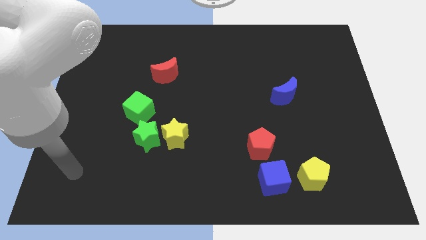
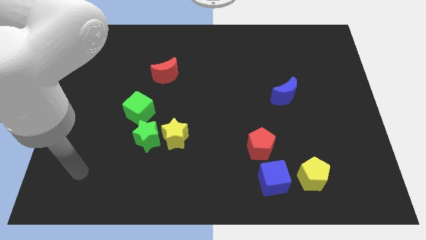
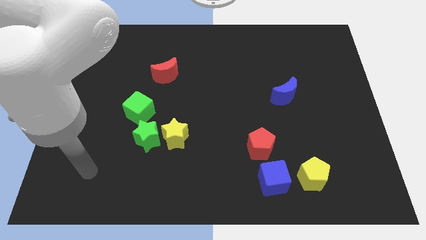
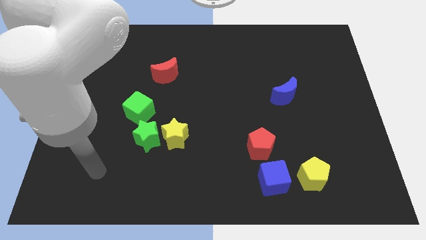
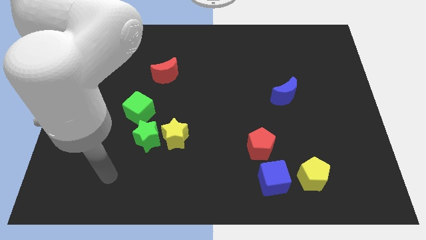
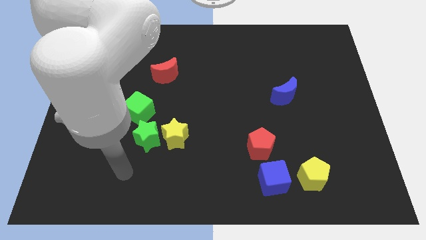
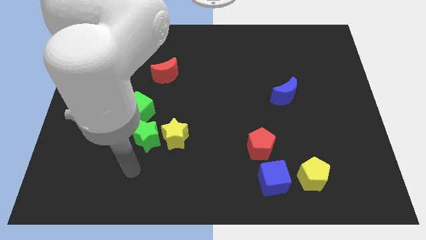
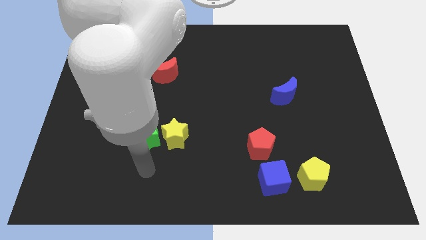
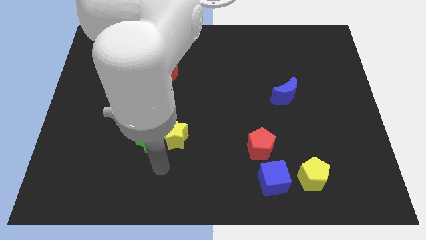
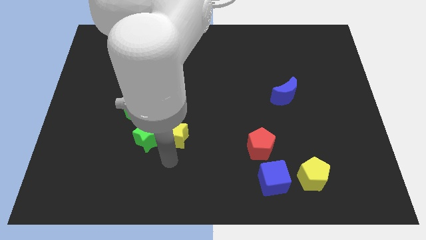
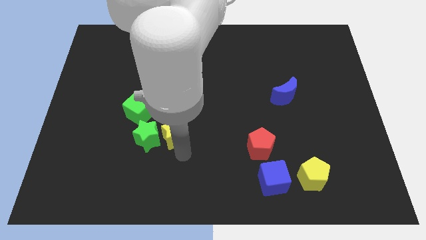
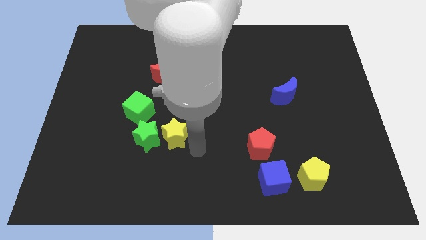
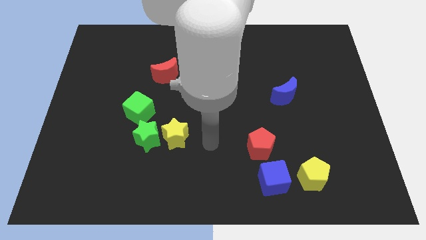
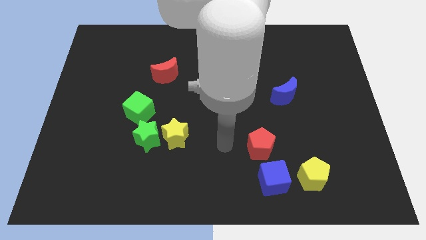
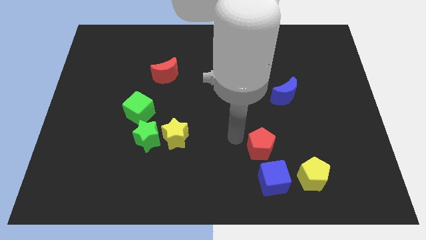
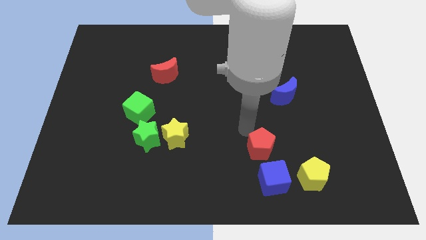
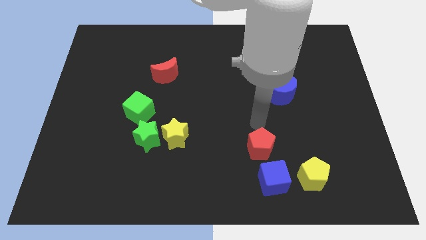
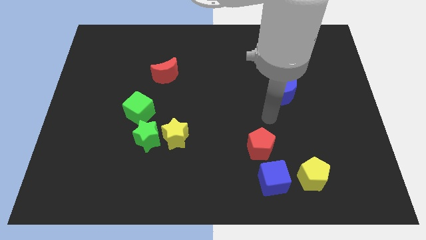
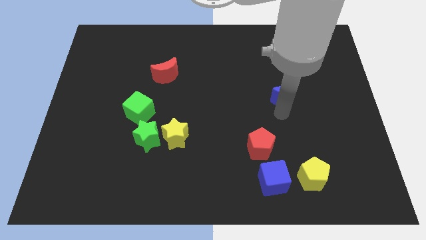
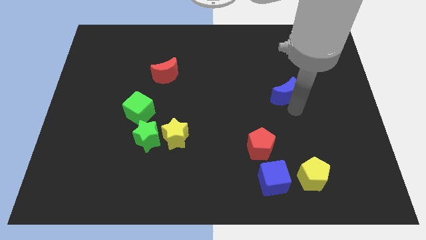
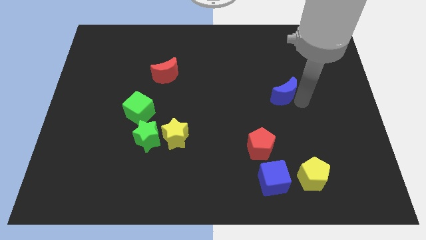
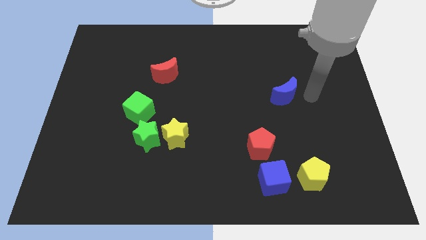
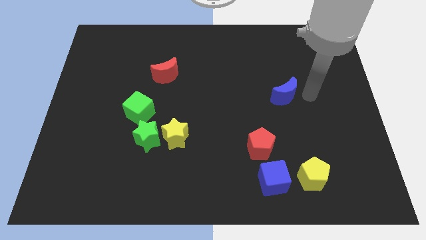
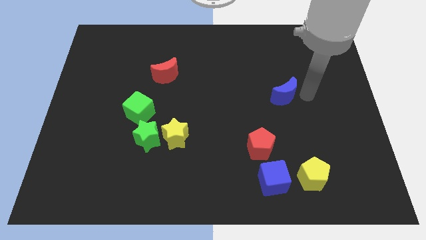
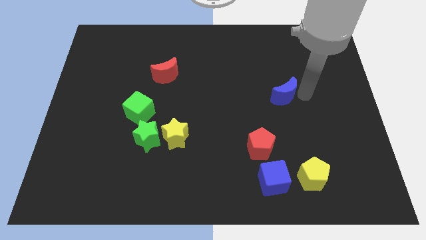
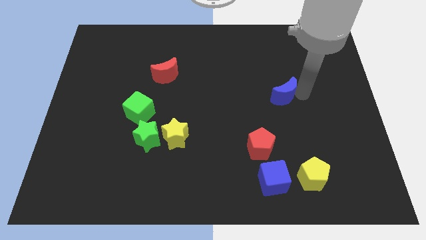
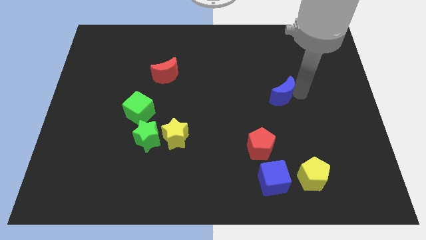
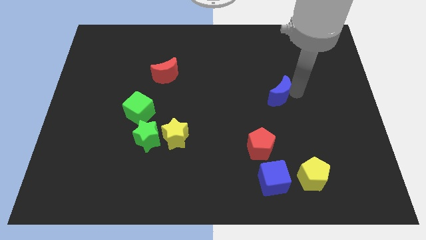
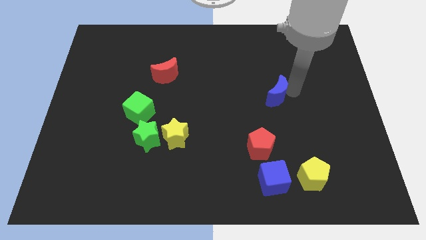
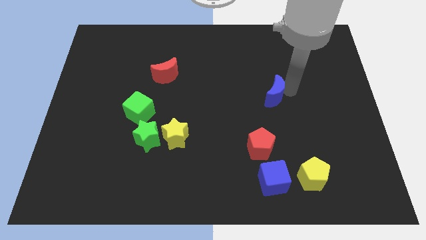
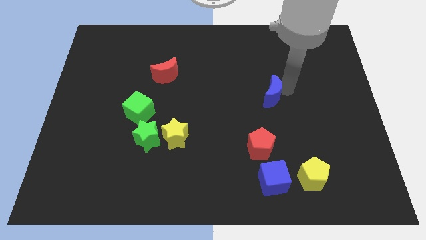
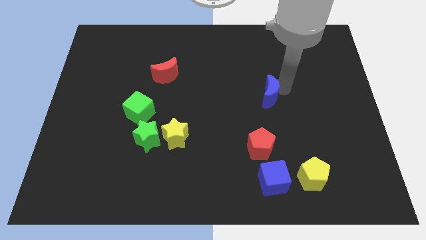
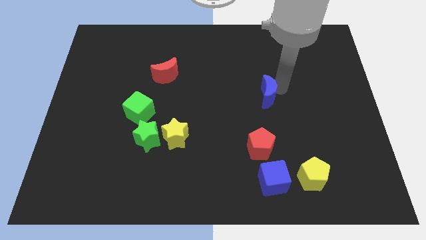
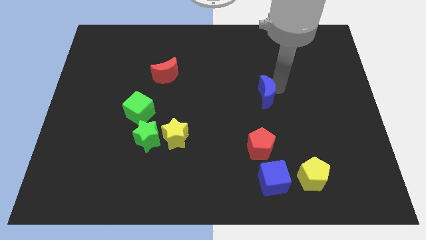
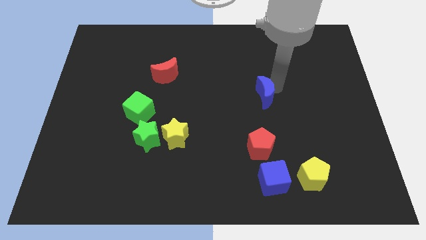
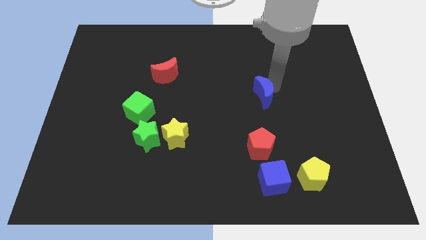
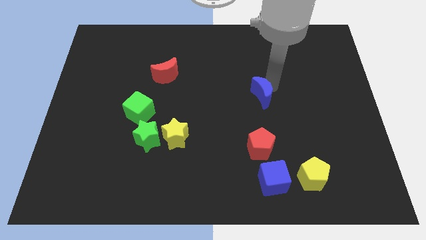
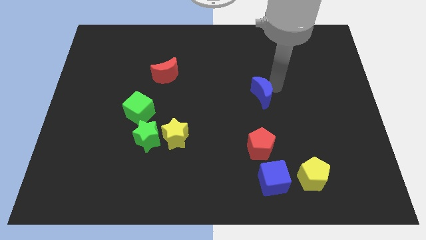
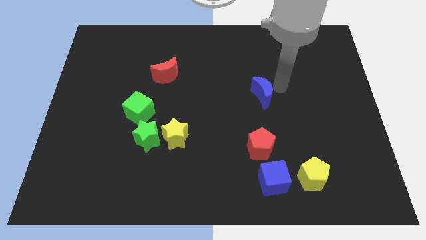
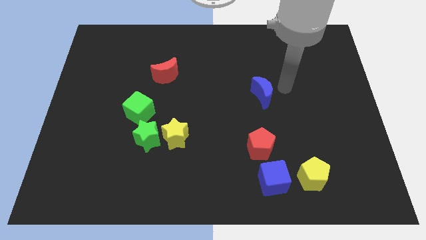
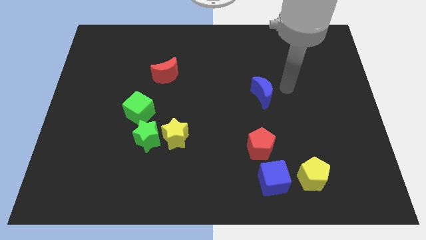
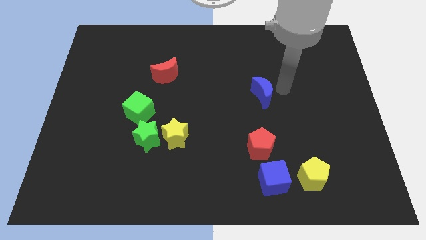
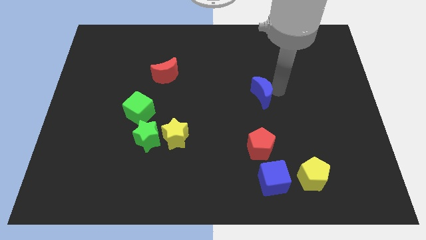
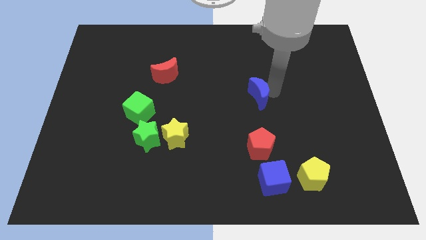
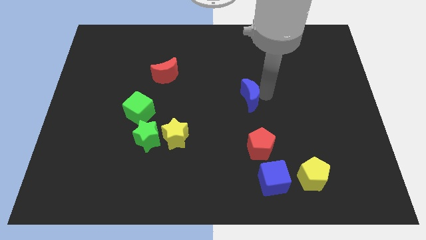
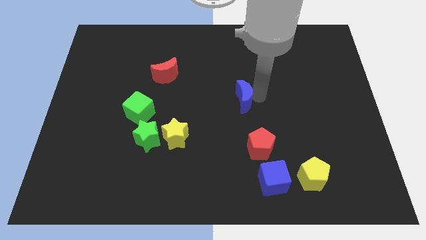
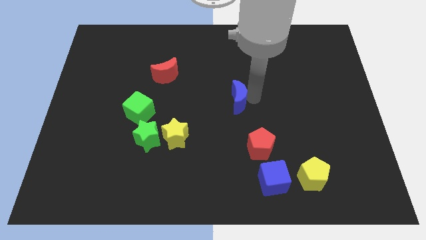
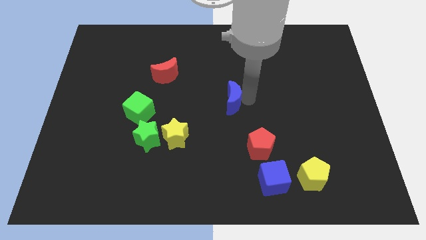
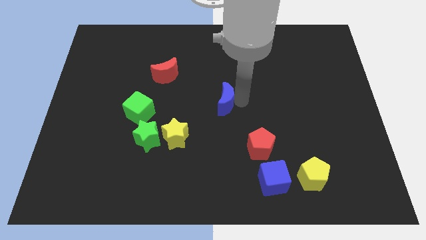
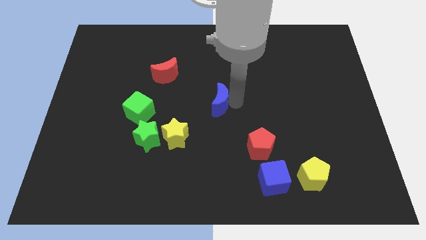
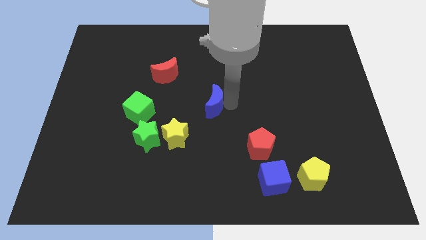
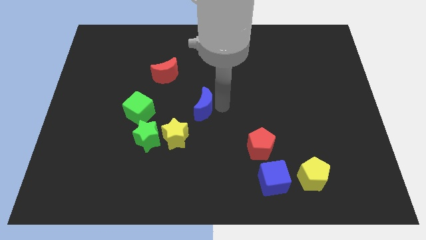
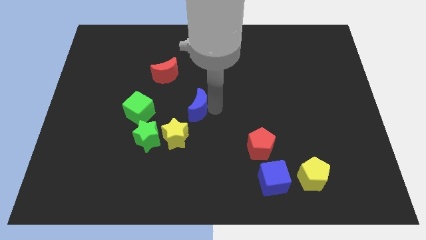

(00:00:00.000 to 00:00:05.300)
push the blue moon left

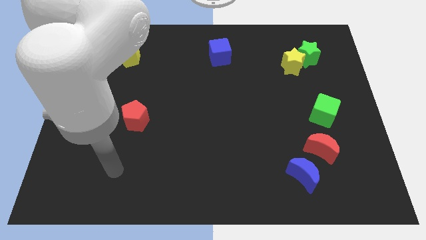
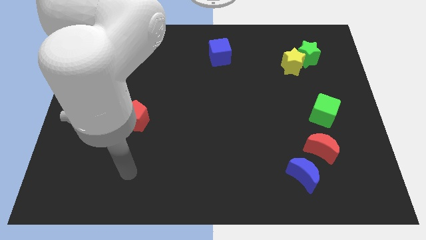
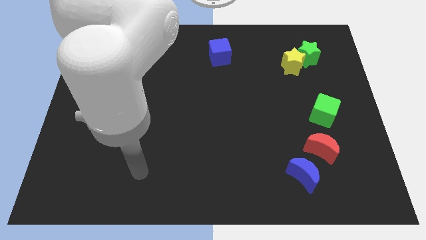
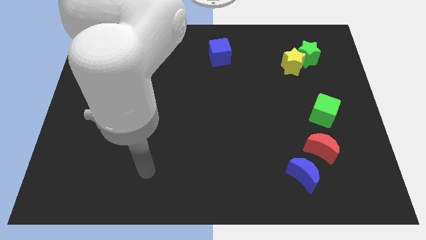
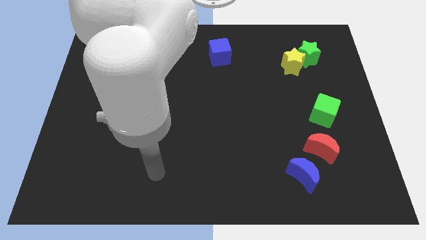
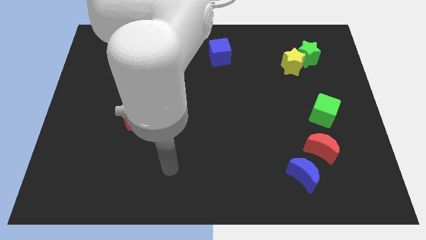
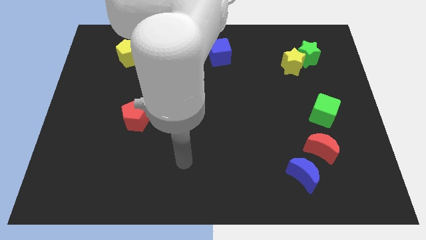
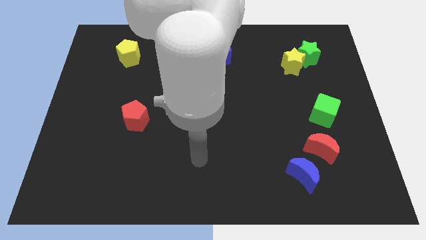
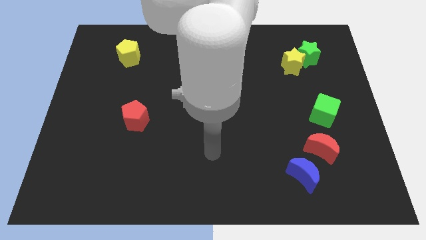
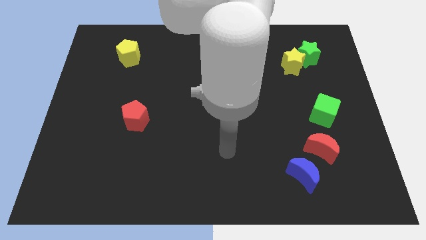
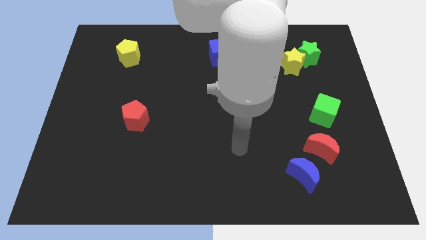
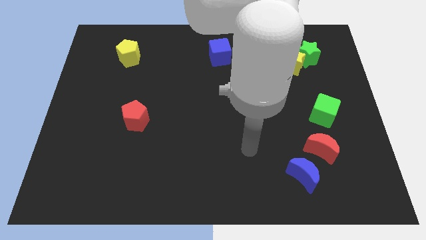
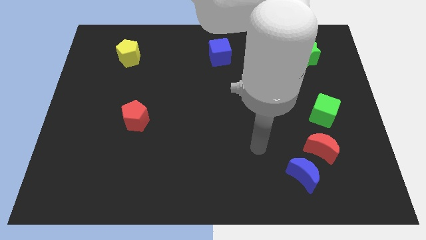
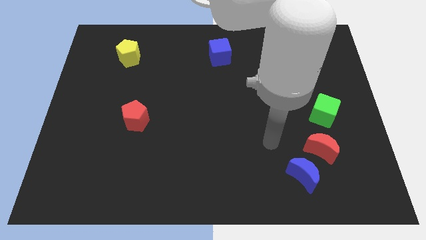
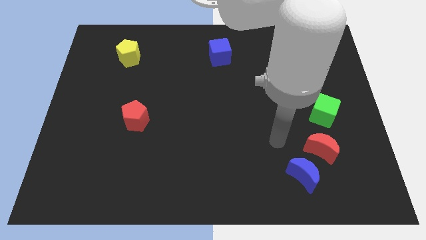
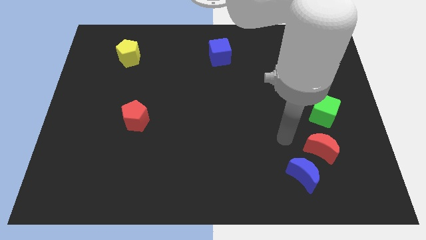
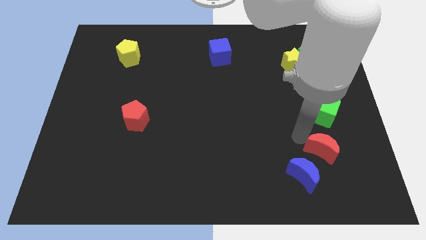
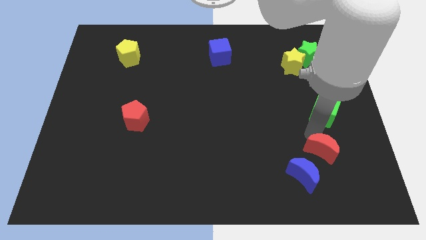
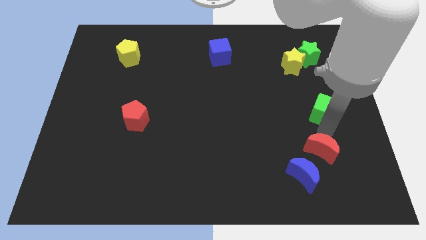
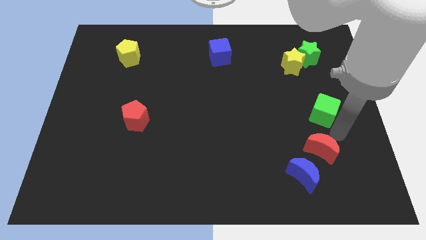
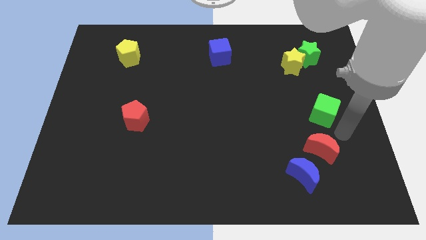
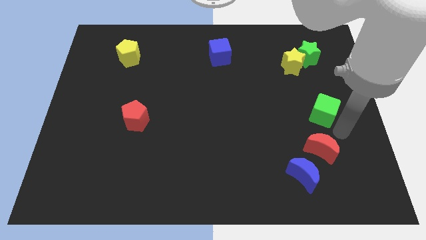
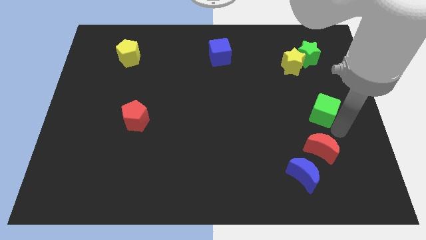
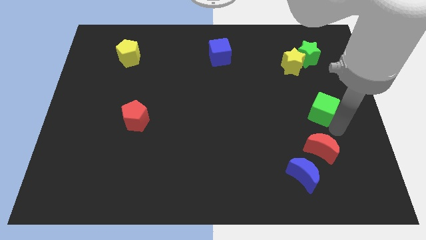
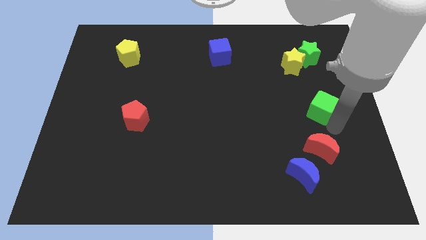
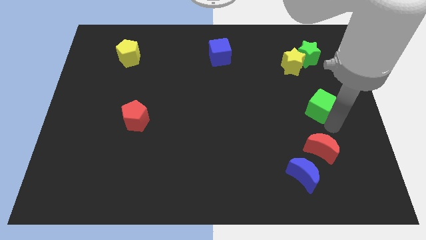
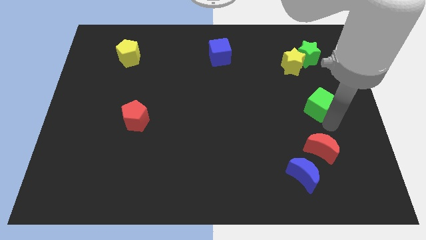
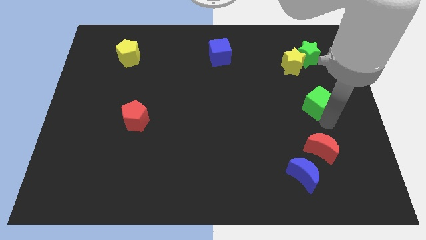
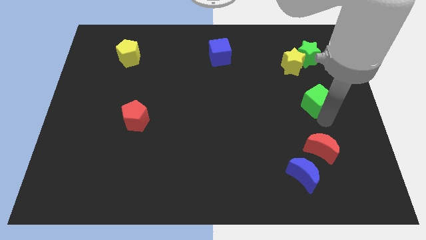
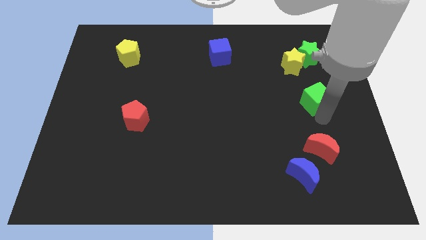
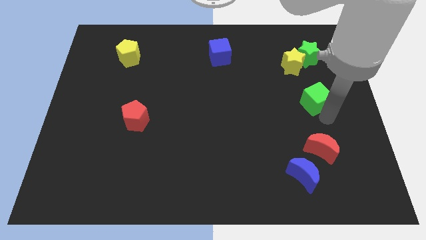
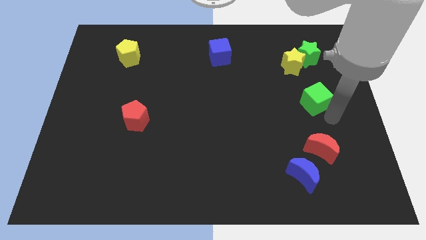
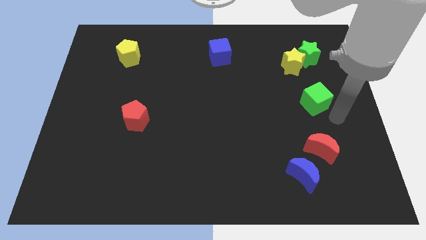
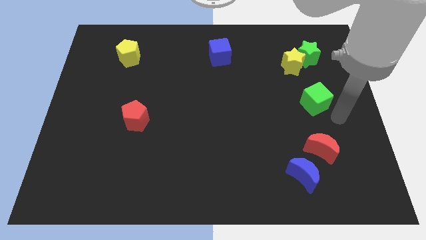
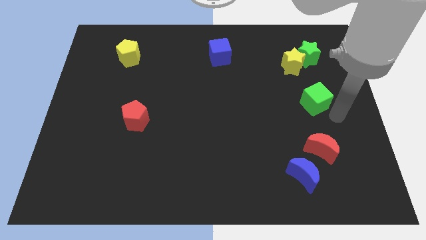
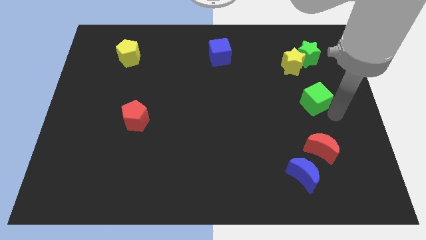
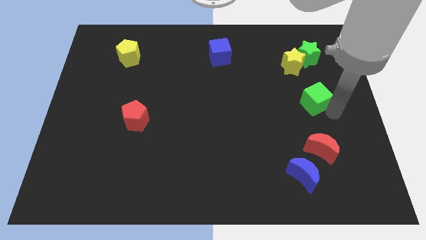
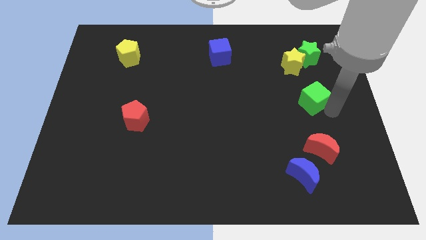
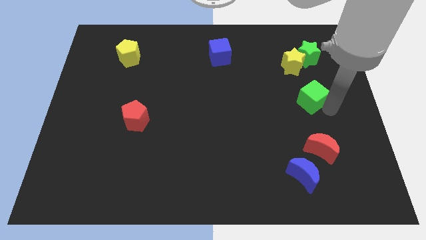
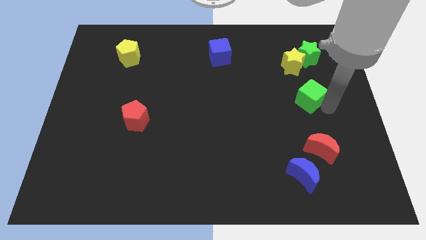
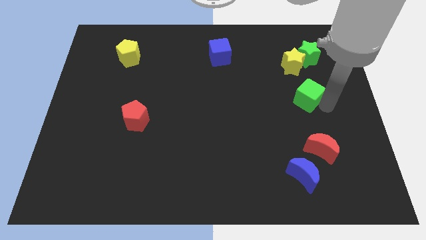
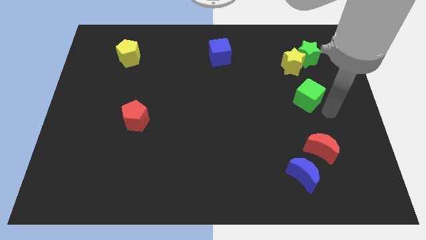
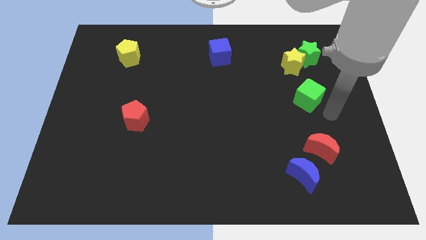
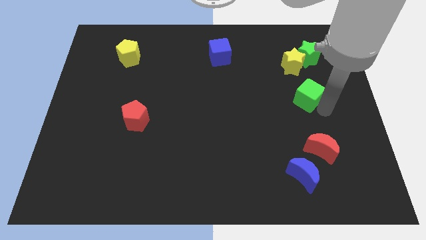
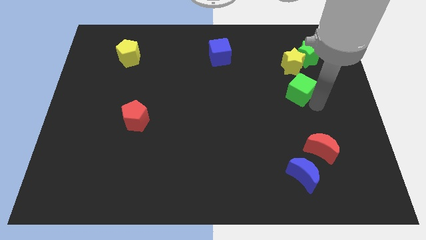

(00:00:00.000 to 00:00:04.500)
push the green cube upwards and left diagonally a bit
